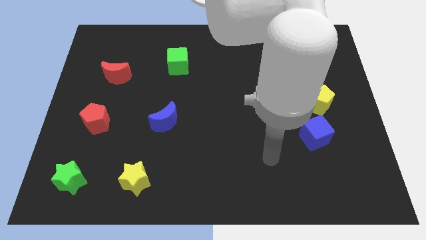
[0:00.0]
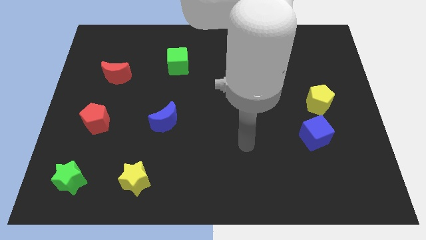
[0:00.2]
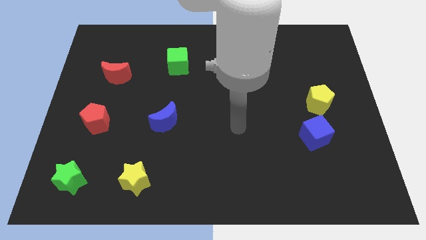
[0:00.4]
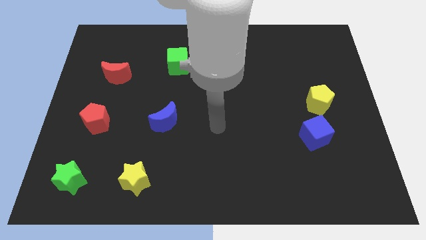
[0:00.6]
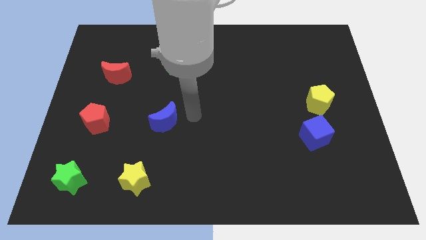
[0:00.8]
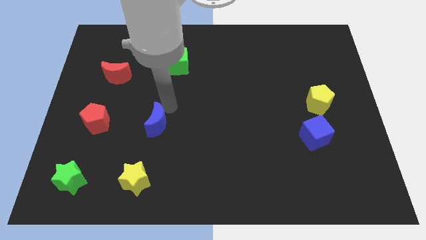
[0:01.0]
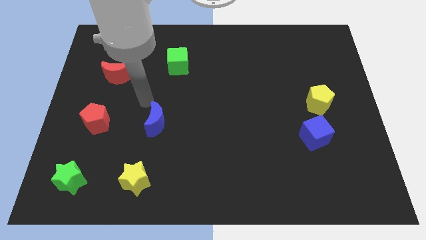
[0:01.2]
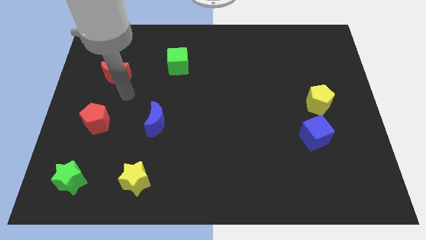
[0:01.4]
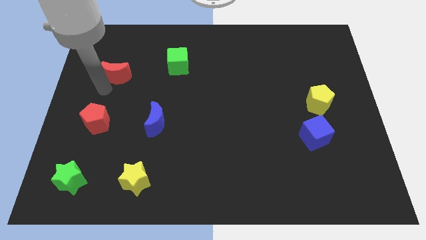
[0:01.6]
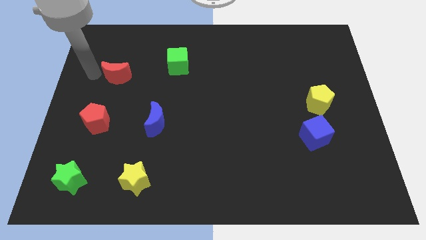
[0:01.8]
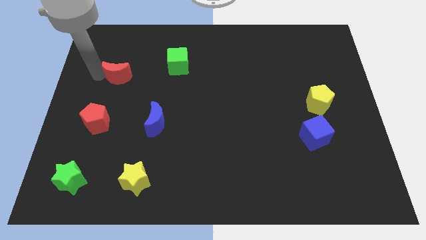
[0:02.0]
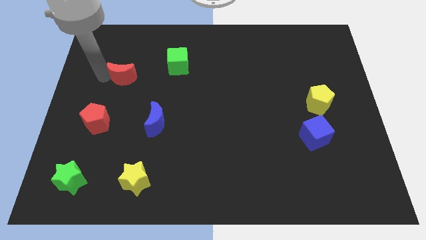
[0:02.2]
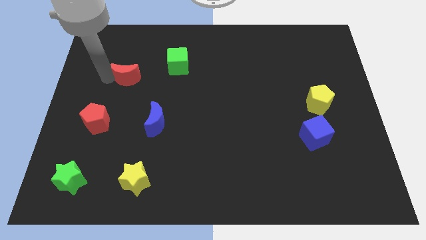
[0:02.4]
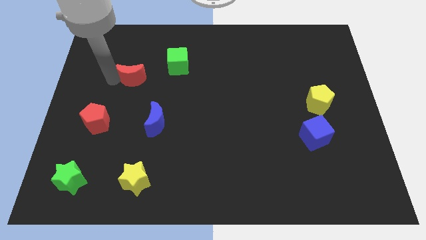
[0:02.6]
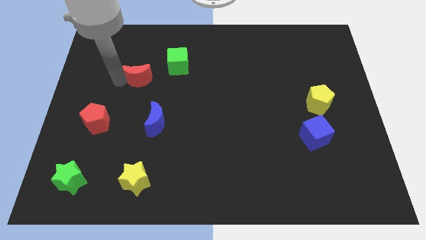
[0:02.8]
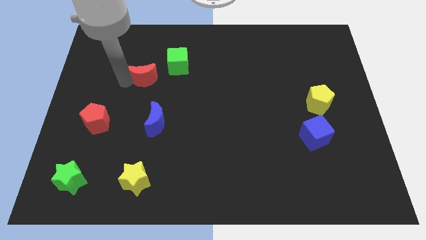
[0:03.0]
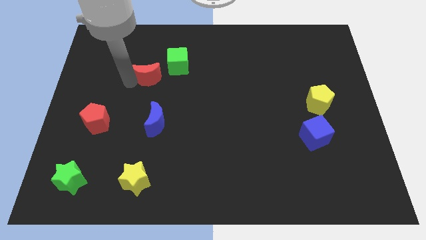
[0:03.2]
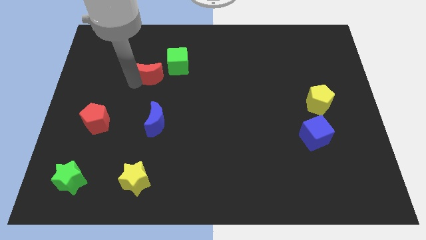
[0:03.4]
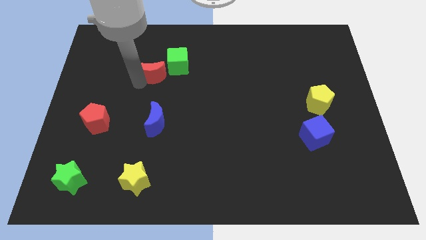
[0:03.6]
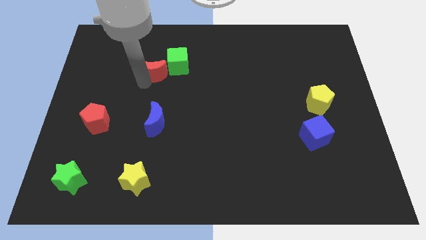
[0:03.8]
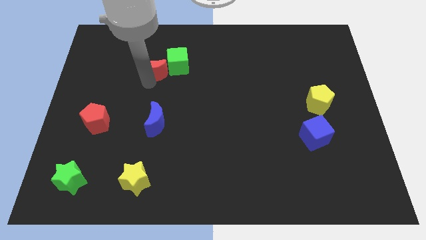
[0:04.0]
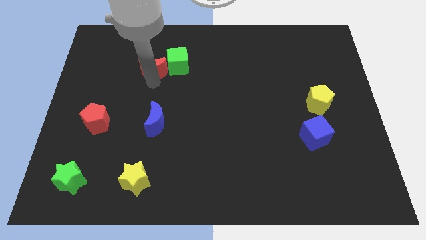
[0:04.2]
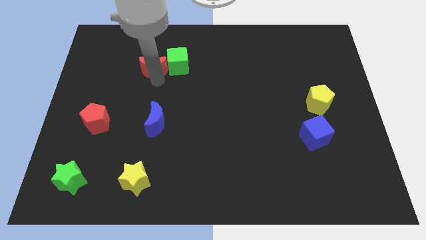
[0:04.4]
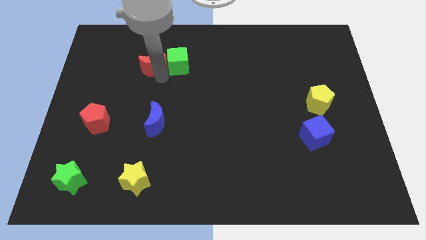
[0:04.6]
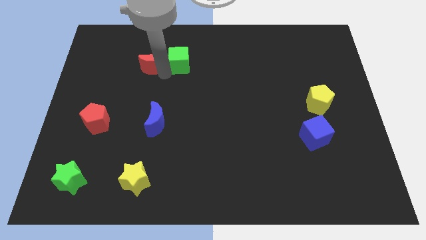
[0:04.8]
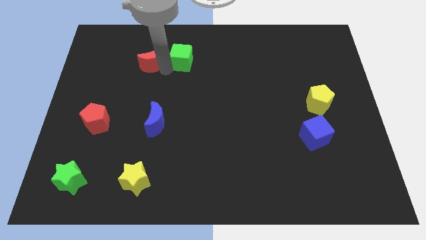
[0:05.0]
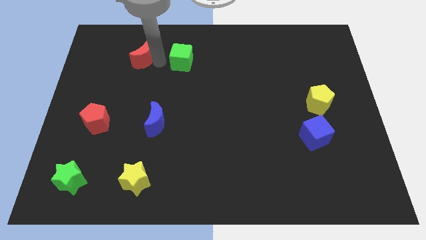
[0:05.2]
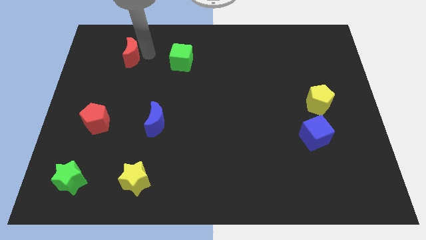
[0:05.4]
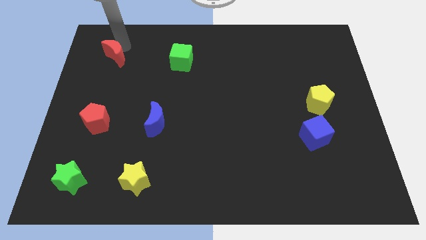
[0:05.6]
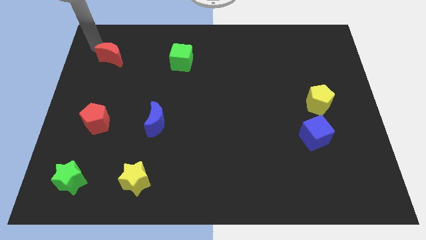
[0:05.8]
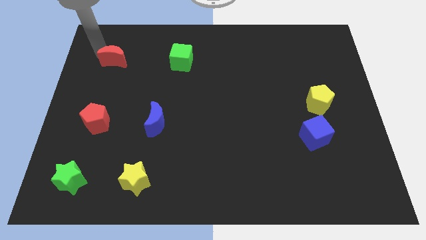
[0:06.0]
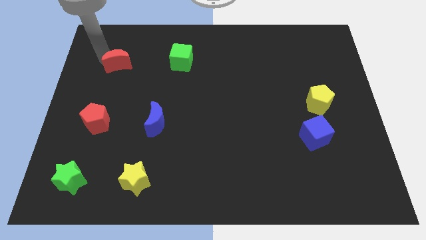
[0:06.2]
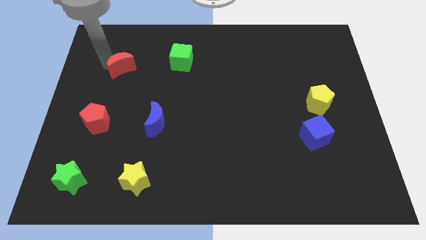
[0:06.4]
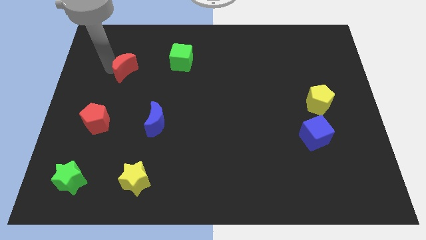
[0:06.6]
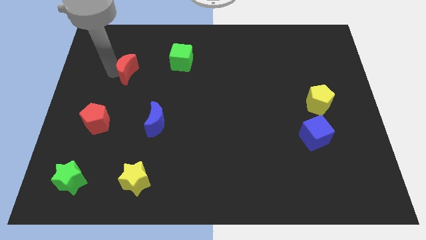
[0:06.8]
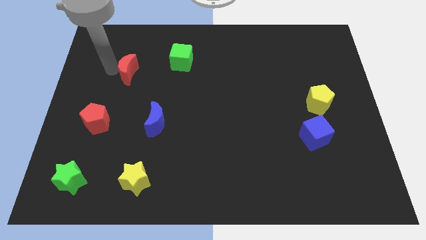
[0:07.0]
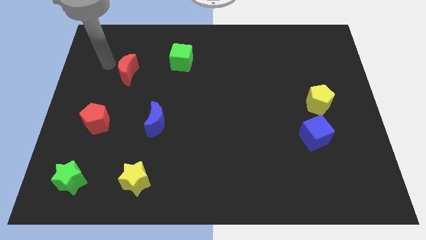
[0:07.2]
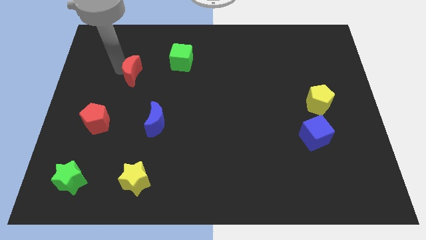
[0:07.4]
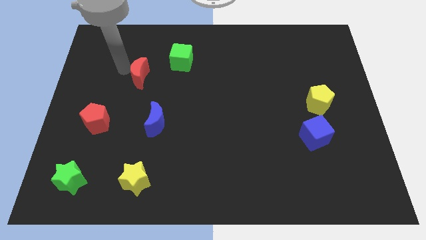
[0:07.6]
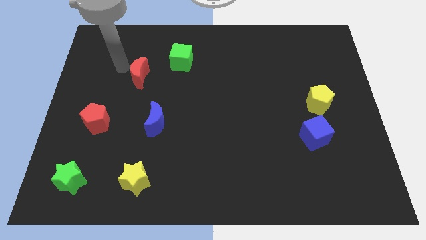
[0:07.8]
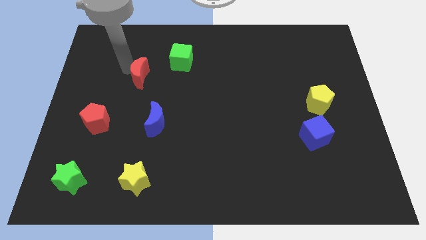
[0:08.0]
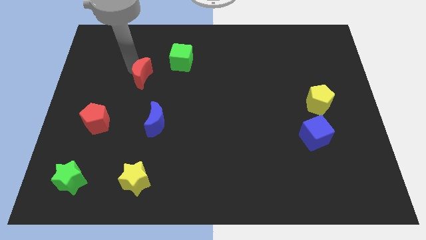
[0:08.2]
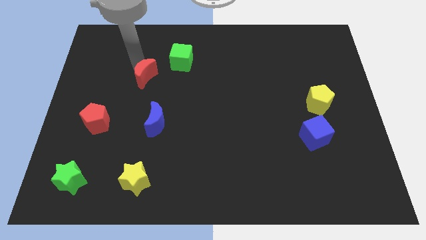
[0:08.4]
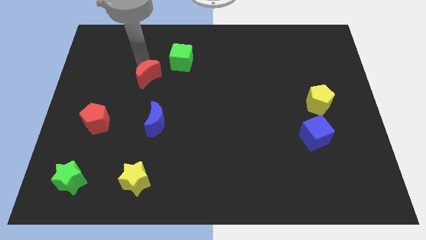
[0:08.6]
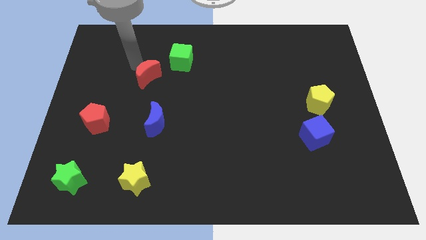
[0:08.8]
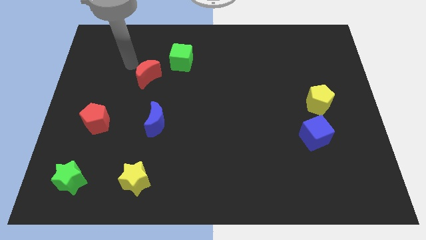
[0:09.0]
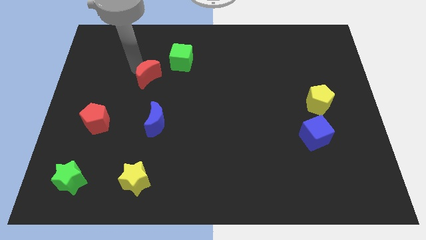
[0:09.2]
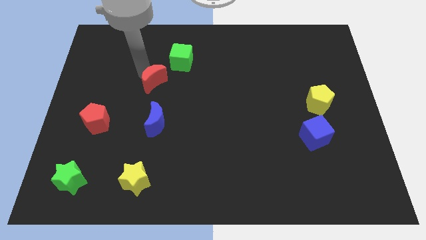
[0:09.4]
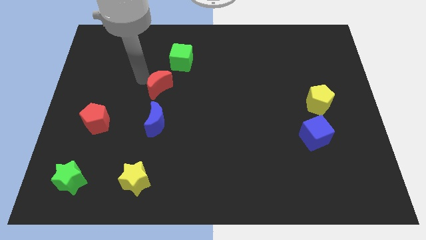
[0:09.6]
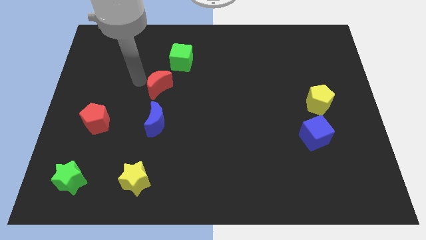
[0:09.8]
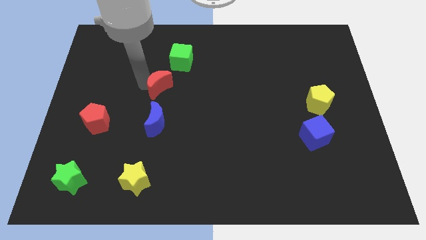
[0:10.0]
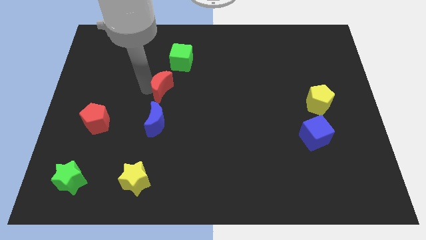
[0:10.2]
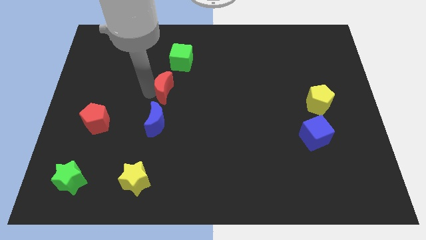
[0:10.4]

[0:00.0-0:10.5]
put the red moon to the center
